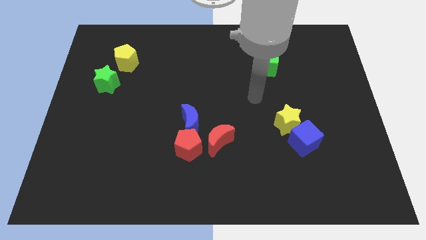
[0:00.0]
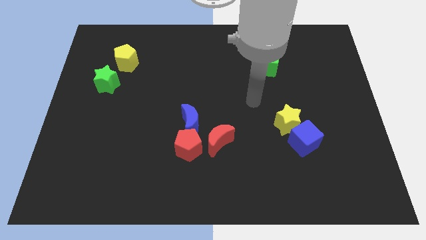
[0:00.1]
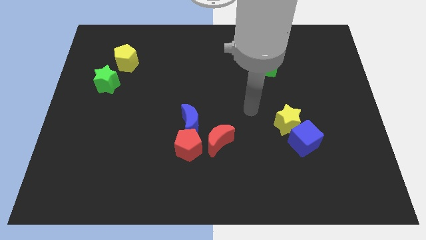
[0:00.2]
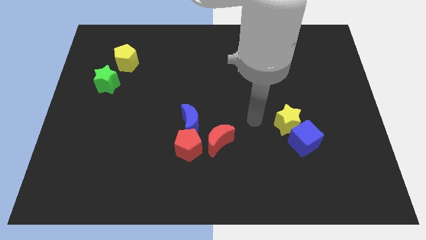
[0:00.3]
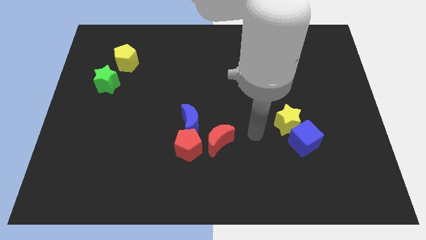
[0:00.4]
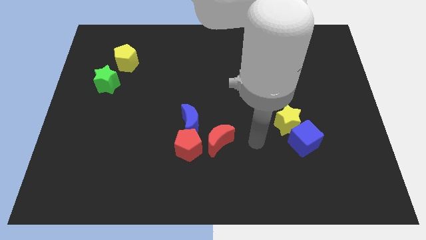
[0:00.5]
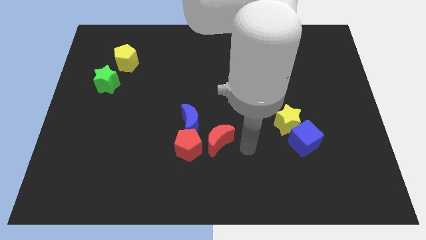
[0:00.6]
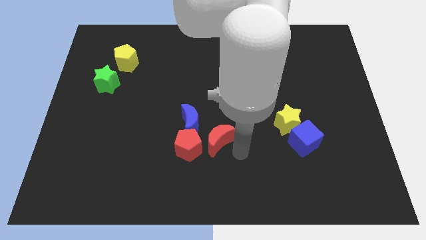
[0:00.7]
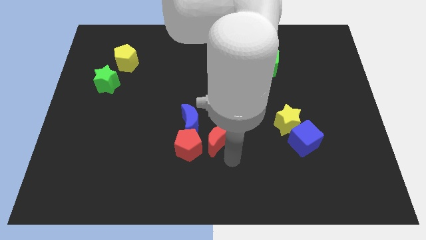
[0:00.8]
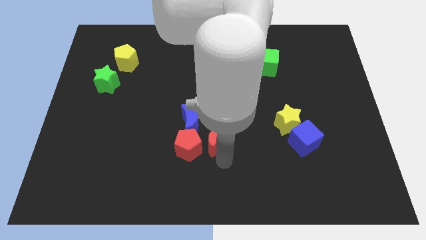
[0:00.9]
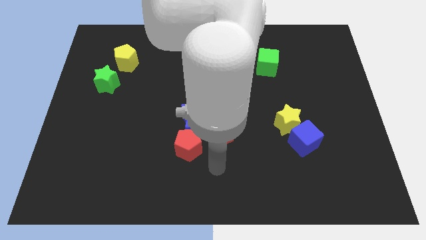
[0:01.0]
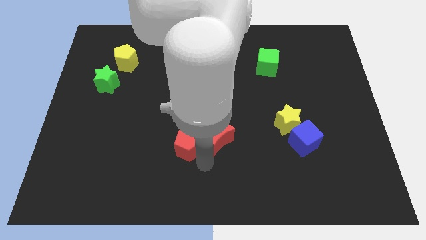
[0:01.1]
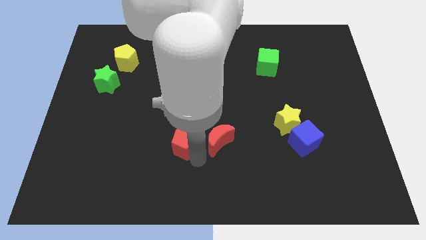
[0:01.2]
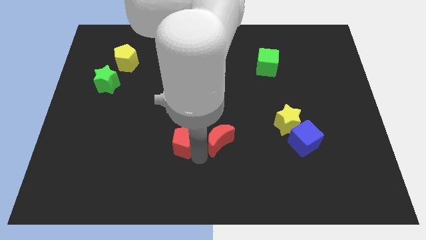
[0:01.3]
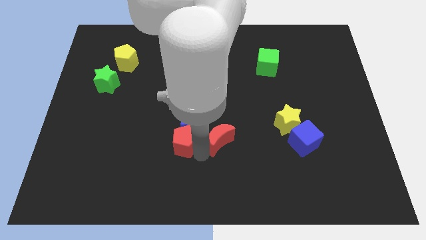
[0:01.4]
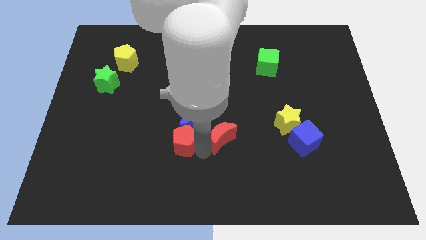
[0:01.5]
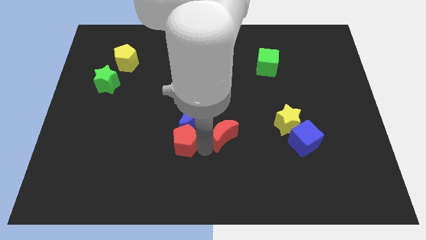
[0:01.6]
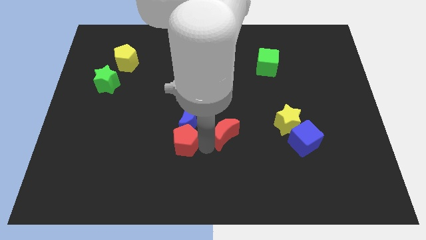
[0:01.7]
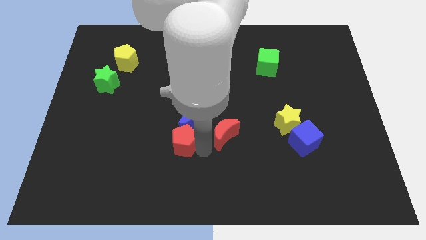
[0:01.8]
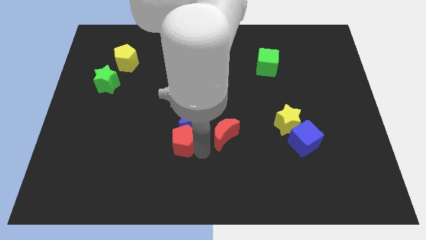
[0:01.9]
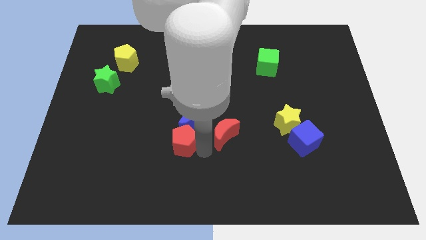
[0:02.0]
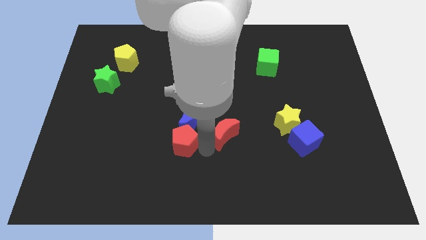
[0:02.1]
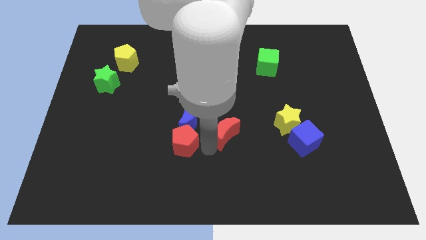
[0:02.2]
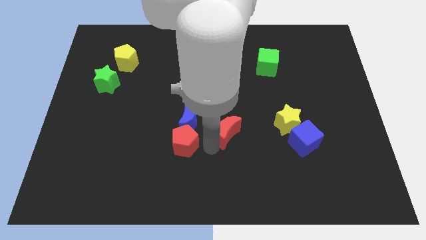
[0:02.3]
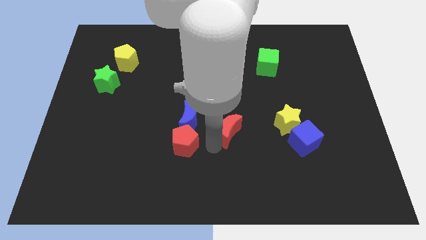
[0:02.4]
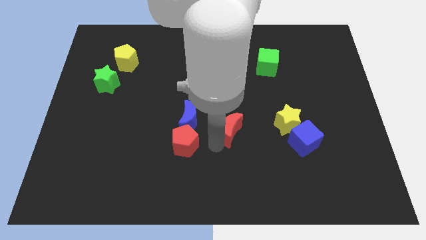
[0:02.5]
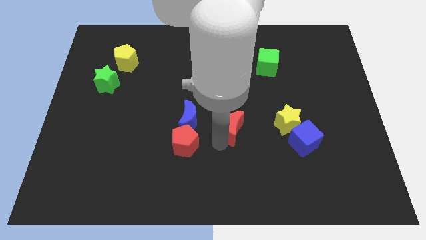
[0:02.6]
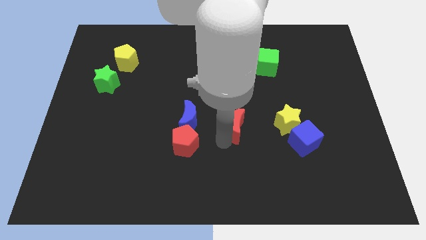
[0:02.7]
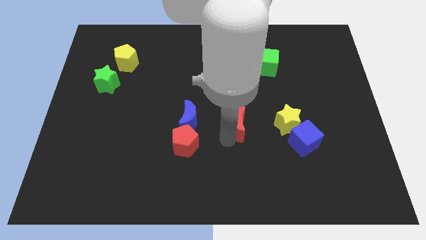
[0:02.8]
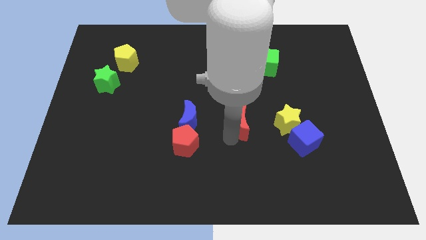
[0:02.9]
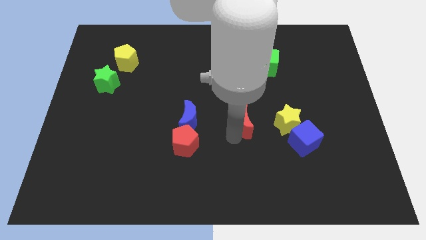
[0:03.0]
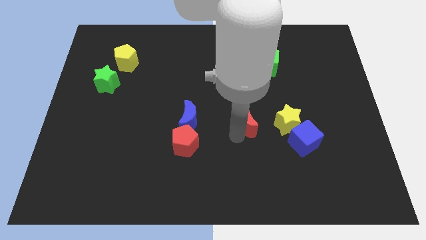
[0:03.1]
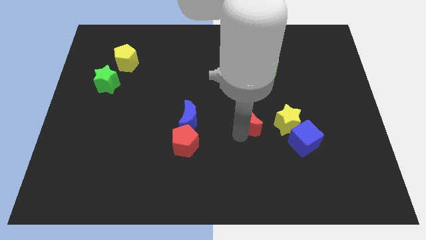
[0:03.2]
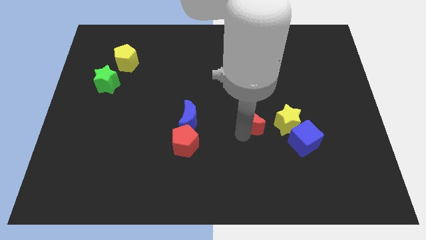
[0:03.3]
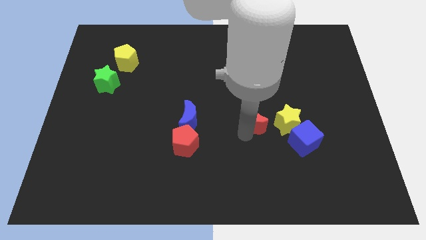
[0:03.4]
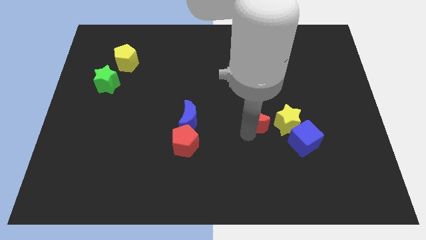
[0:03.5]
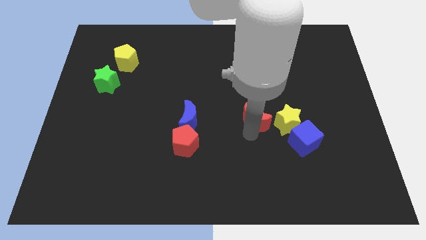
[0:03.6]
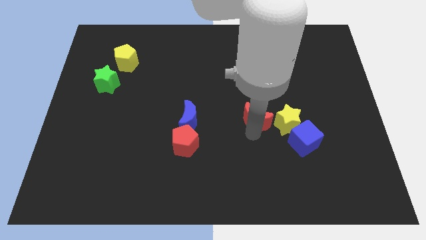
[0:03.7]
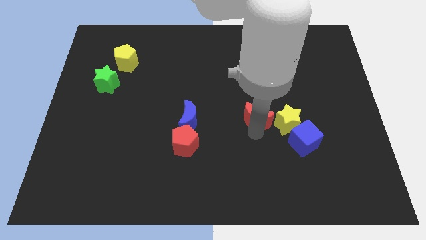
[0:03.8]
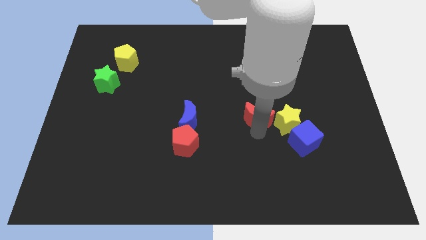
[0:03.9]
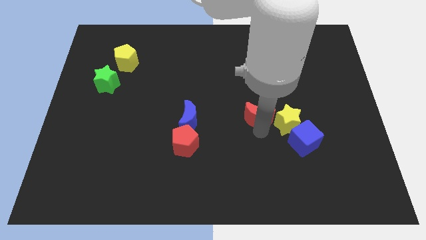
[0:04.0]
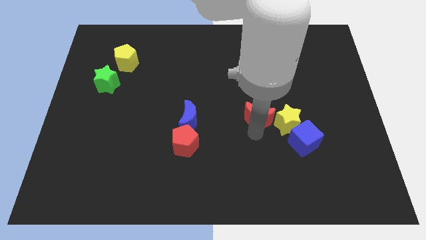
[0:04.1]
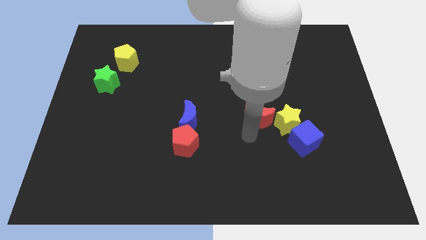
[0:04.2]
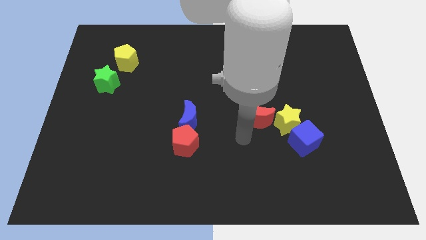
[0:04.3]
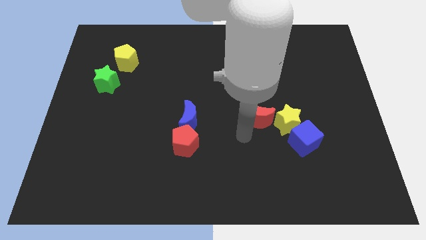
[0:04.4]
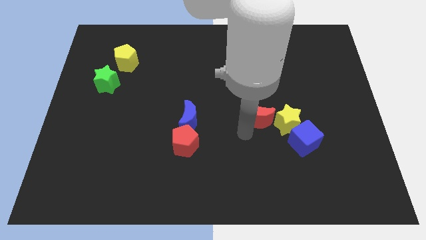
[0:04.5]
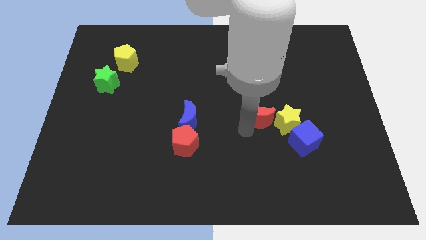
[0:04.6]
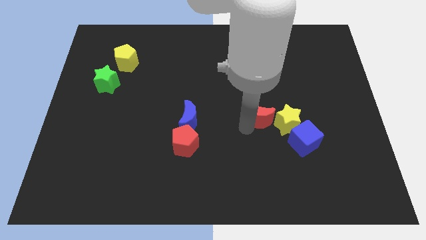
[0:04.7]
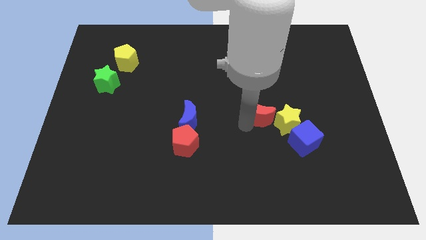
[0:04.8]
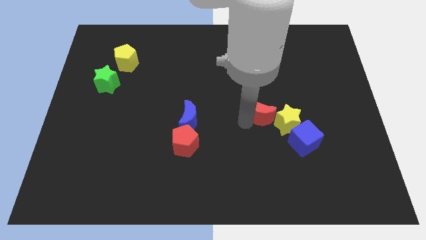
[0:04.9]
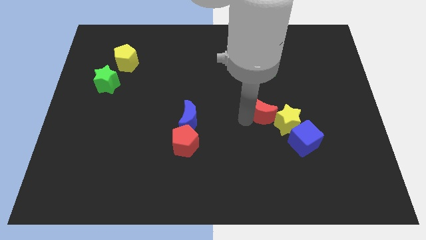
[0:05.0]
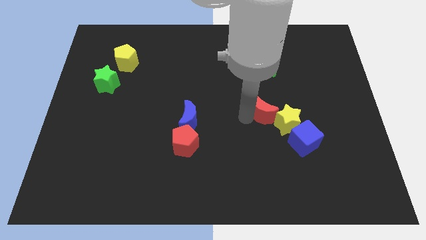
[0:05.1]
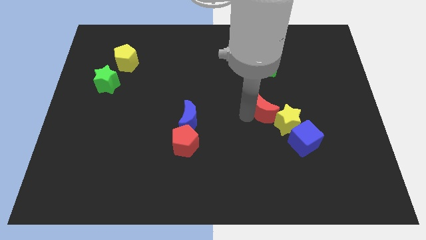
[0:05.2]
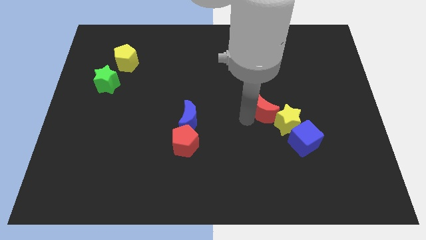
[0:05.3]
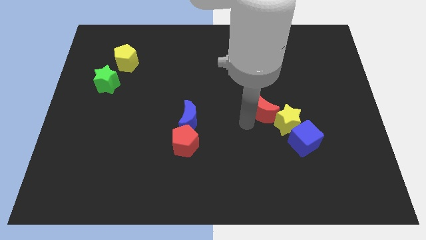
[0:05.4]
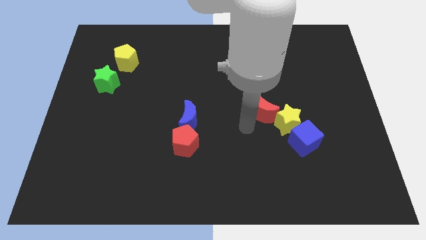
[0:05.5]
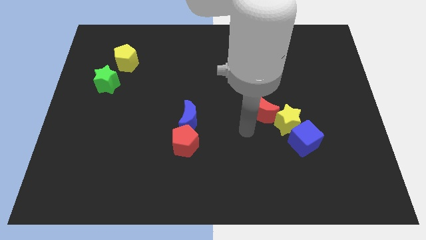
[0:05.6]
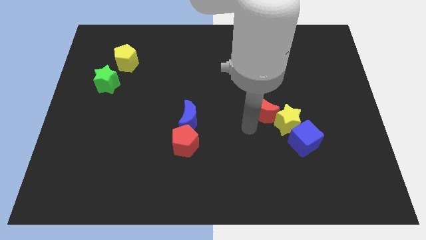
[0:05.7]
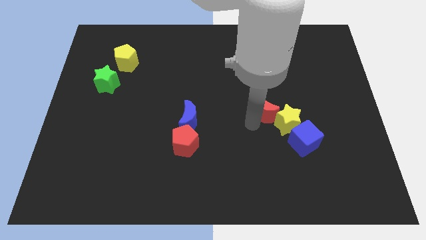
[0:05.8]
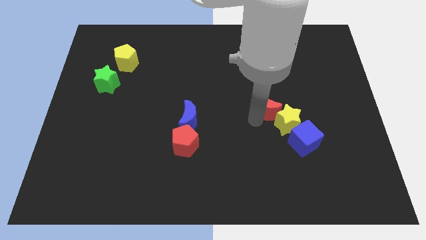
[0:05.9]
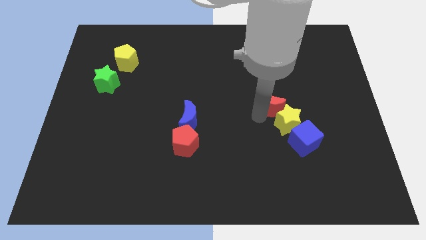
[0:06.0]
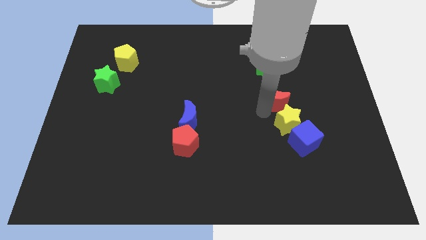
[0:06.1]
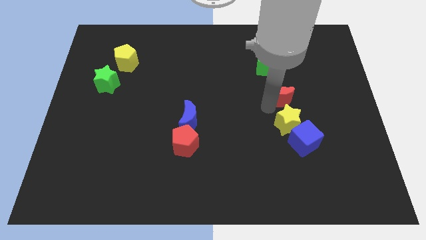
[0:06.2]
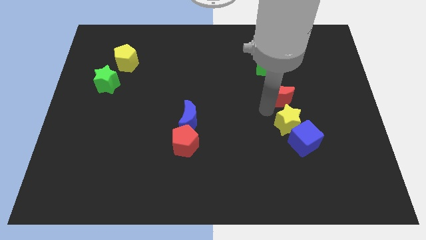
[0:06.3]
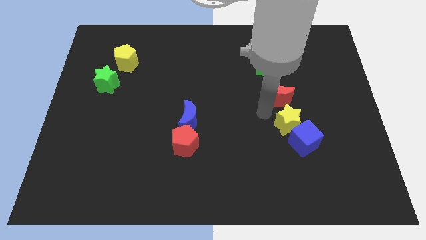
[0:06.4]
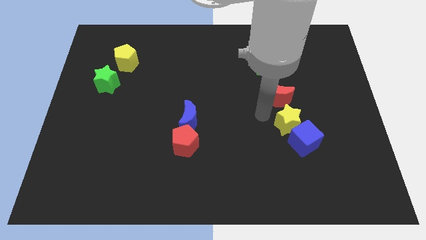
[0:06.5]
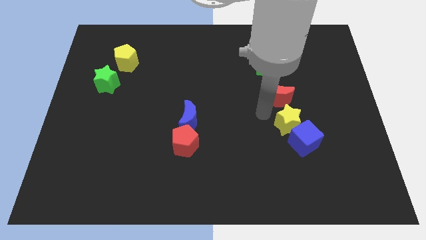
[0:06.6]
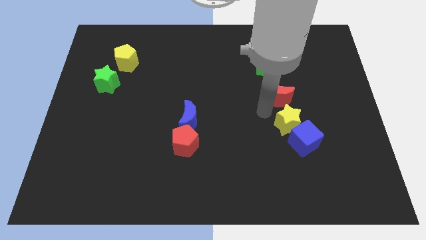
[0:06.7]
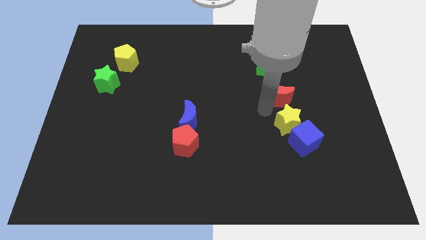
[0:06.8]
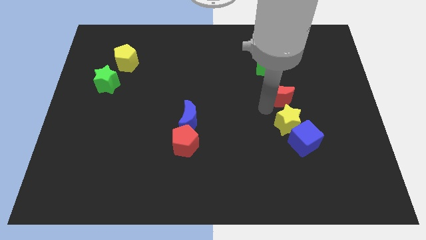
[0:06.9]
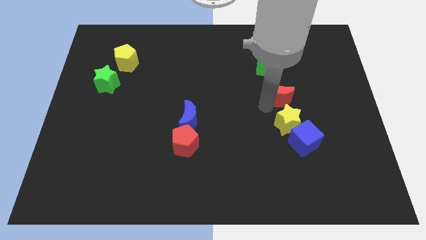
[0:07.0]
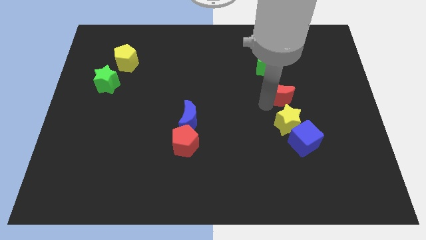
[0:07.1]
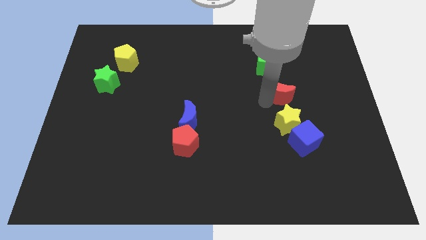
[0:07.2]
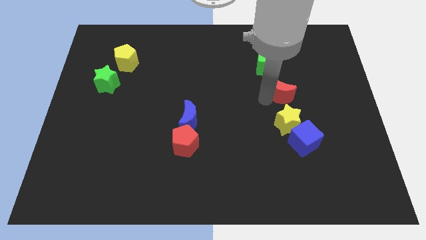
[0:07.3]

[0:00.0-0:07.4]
push the red moon up and right diagonally

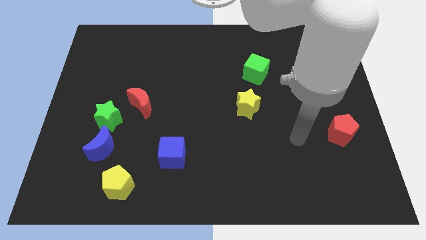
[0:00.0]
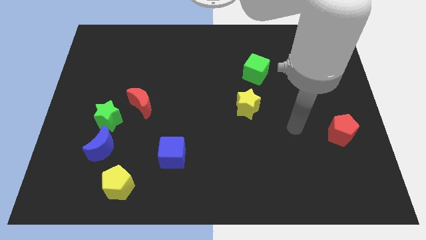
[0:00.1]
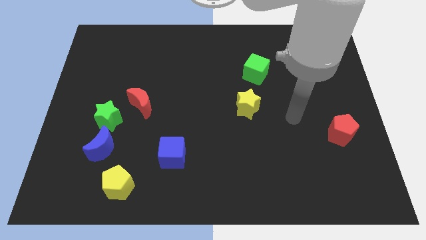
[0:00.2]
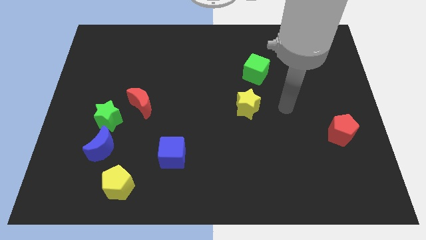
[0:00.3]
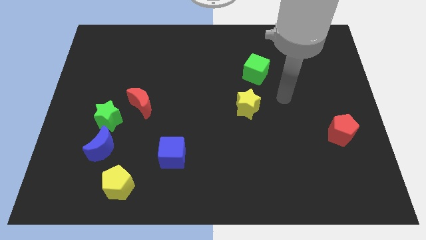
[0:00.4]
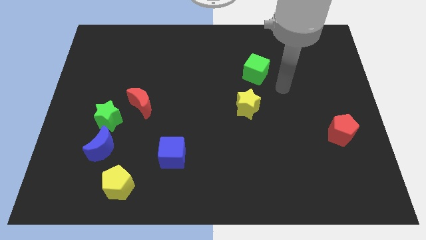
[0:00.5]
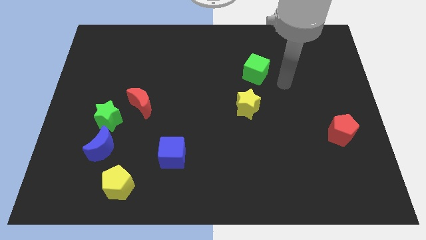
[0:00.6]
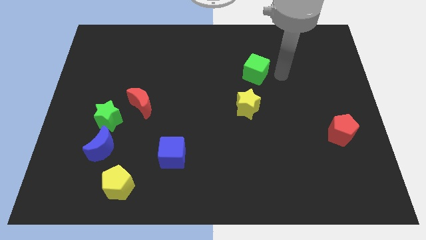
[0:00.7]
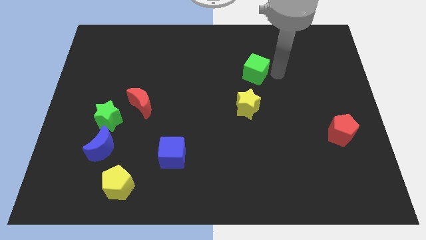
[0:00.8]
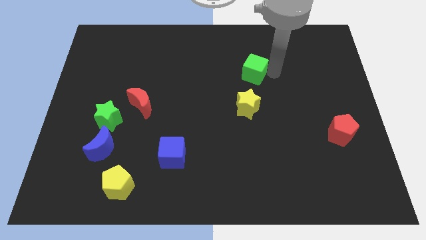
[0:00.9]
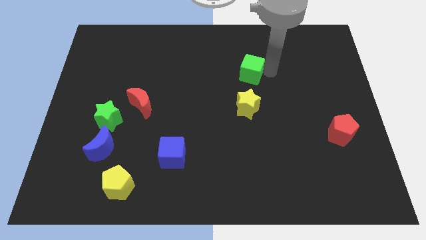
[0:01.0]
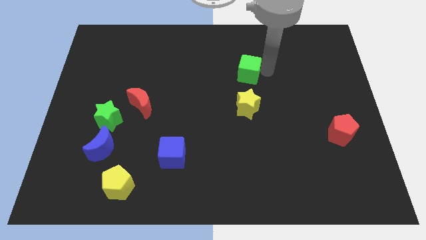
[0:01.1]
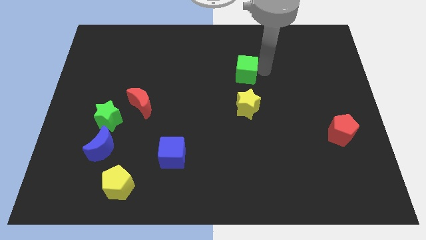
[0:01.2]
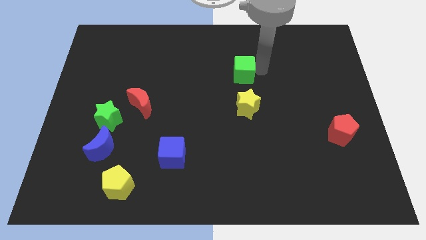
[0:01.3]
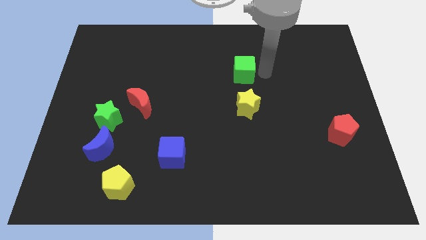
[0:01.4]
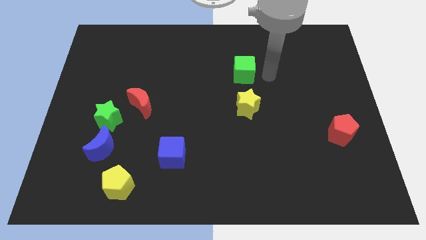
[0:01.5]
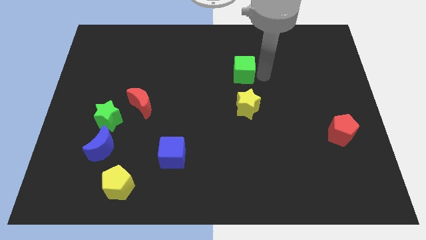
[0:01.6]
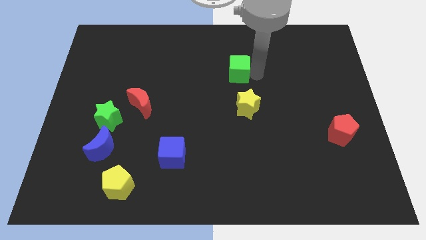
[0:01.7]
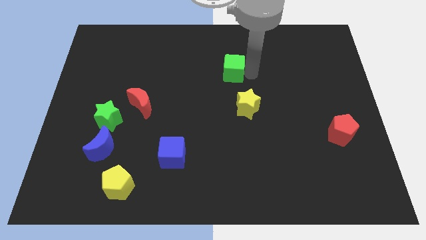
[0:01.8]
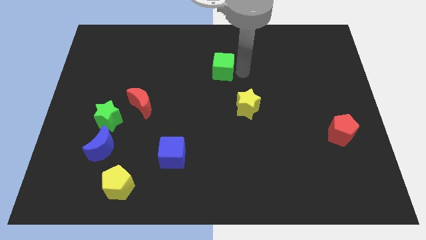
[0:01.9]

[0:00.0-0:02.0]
slightly move the green cube left
